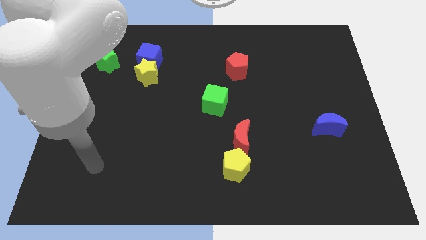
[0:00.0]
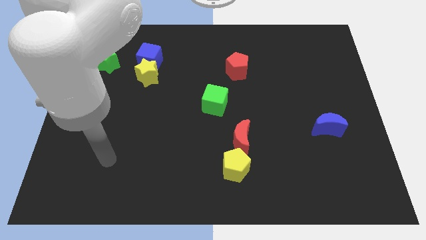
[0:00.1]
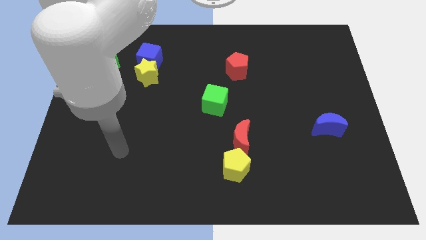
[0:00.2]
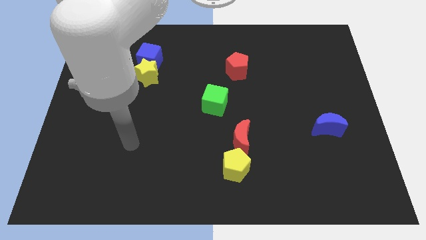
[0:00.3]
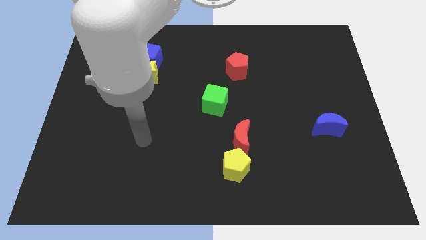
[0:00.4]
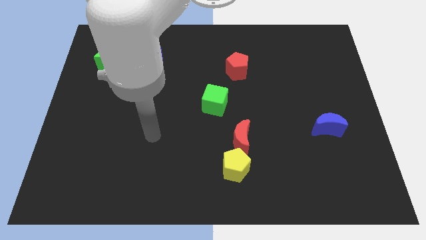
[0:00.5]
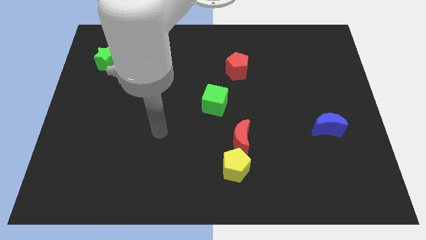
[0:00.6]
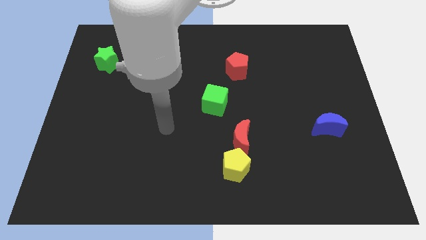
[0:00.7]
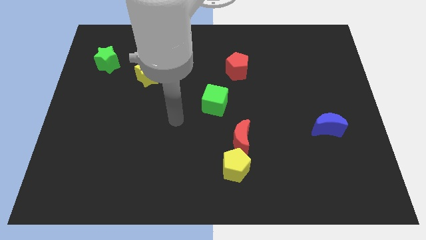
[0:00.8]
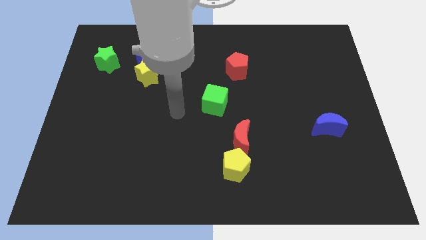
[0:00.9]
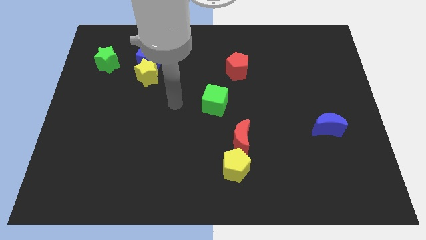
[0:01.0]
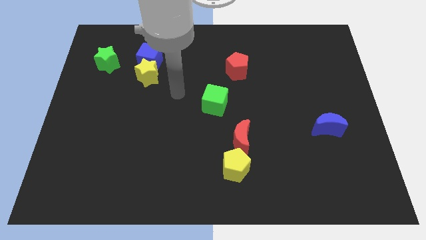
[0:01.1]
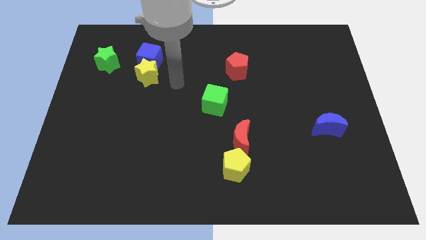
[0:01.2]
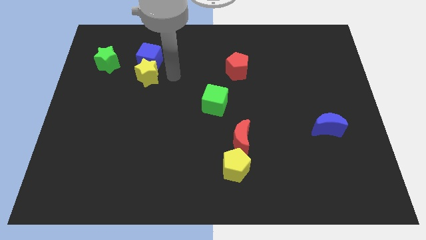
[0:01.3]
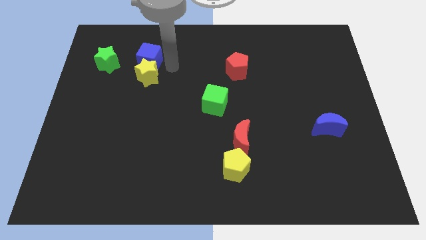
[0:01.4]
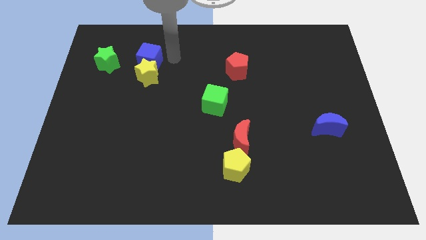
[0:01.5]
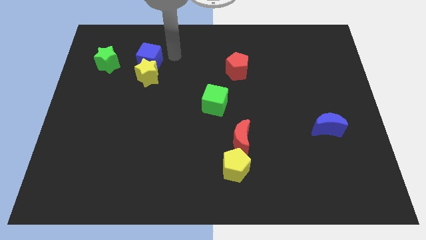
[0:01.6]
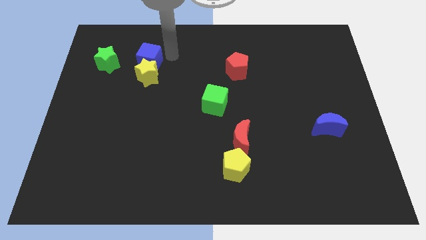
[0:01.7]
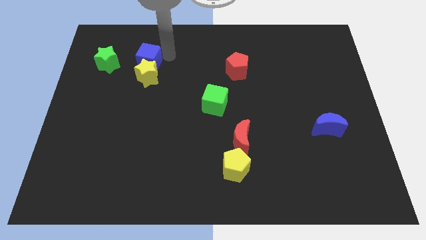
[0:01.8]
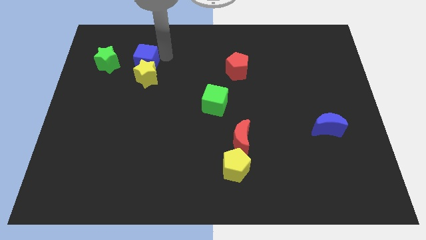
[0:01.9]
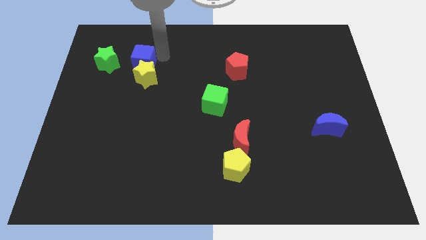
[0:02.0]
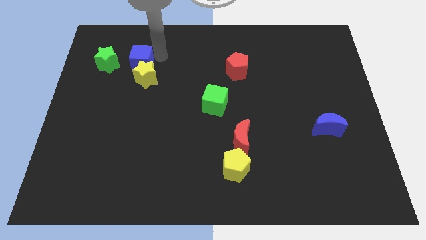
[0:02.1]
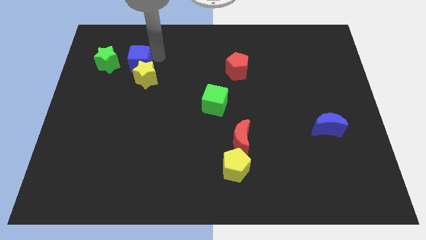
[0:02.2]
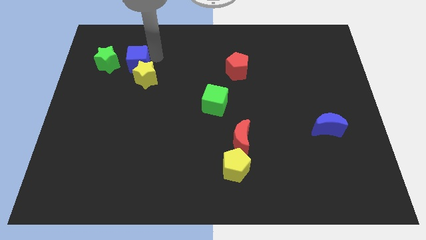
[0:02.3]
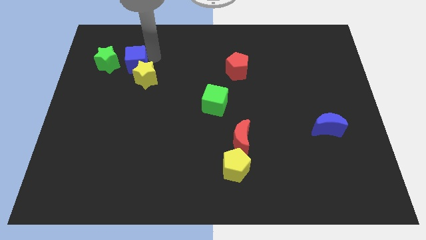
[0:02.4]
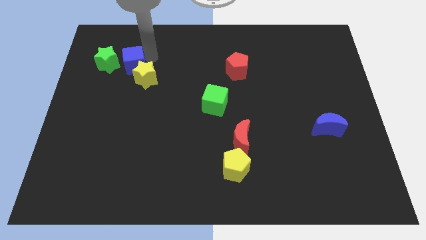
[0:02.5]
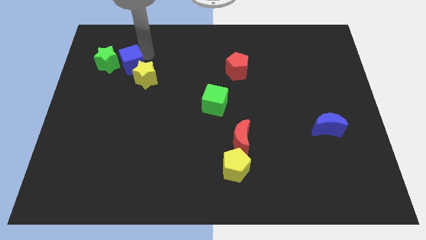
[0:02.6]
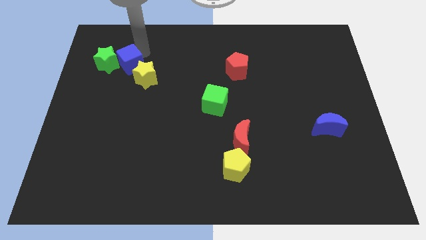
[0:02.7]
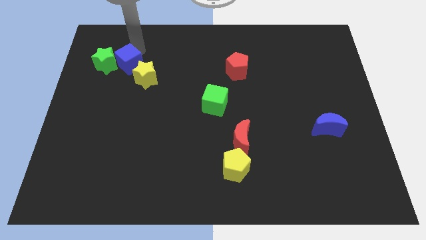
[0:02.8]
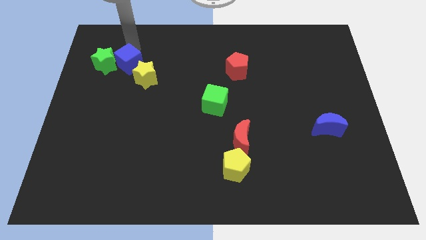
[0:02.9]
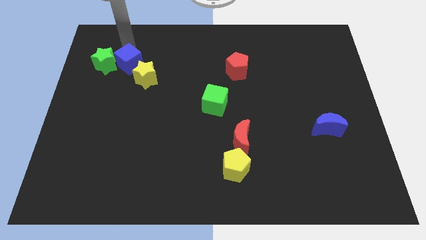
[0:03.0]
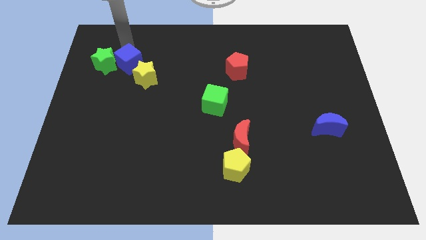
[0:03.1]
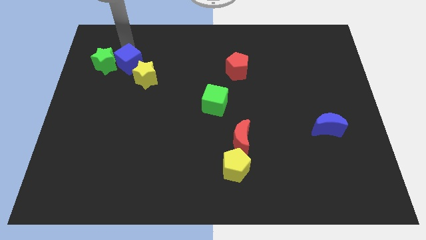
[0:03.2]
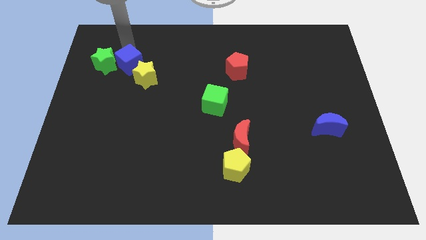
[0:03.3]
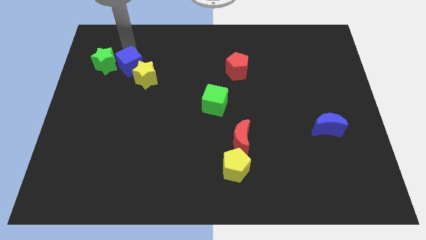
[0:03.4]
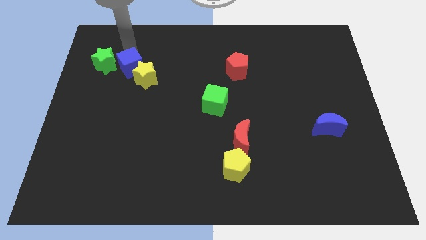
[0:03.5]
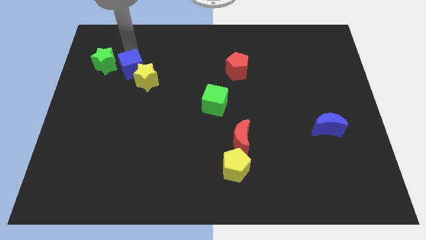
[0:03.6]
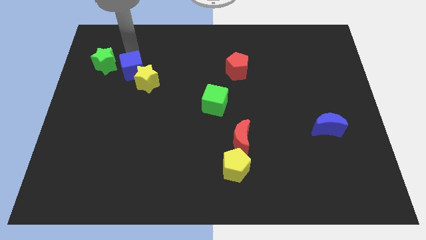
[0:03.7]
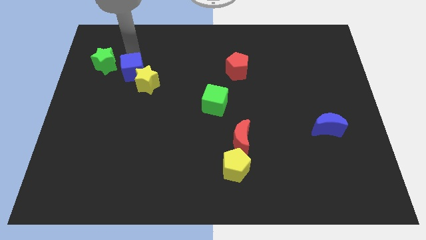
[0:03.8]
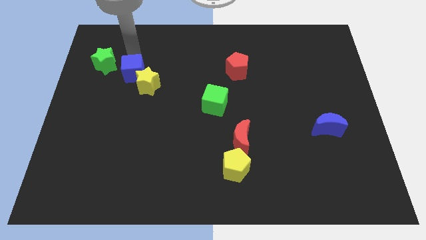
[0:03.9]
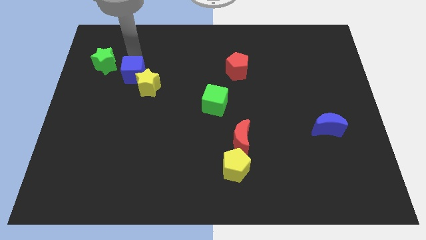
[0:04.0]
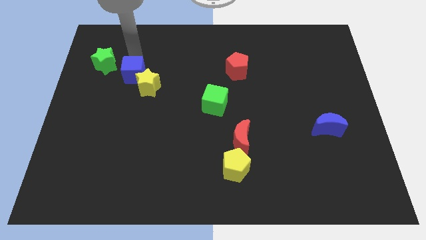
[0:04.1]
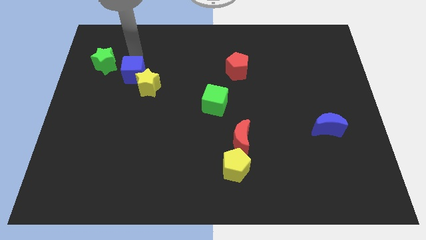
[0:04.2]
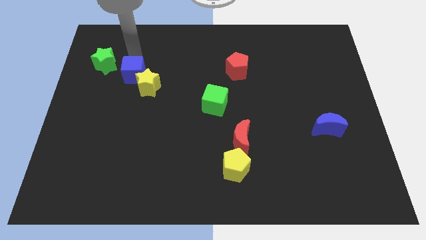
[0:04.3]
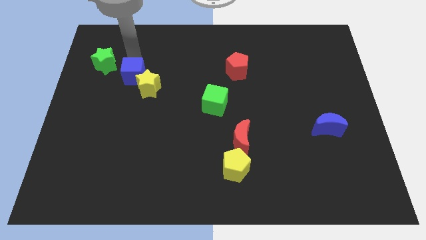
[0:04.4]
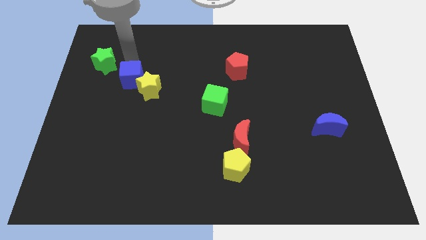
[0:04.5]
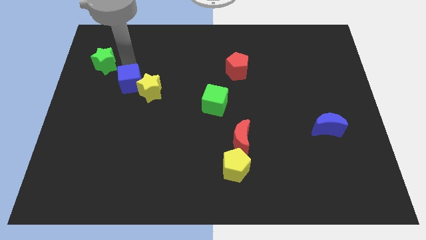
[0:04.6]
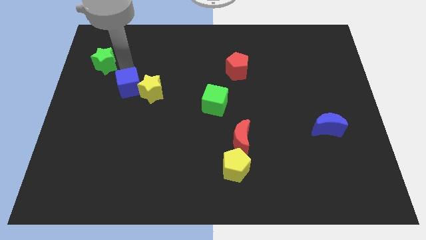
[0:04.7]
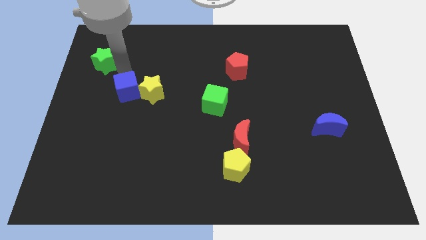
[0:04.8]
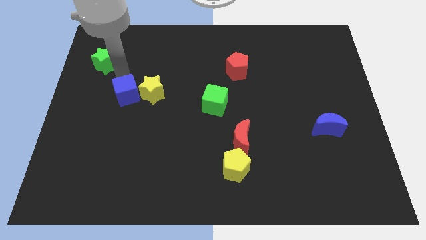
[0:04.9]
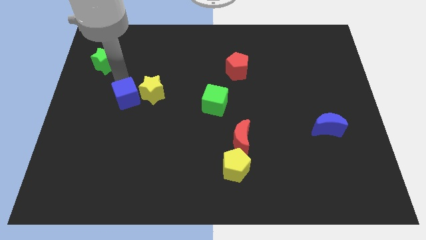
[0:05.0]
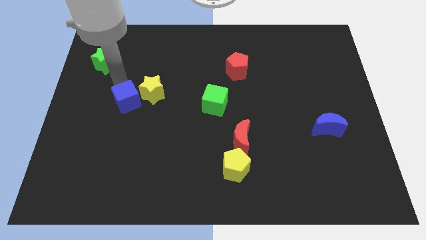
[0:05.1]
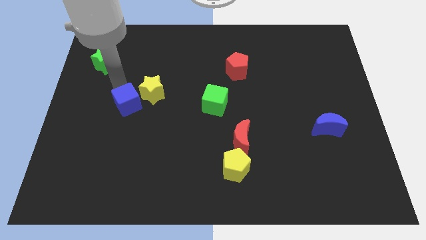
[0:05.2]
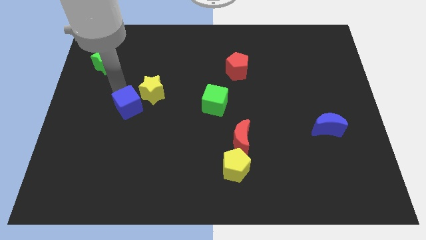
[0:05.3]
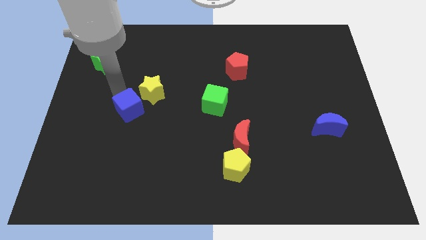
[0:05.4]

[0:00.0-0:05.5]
put the blue cube to the bottom of the yellow star

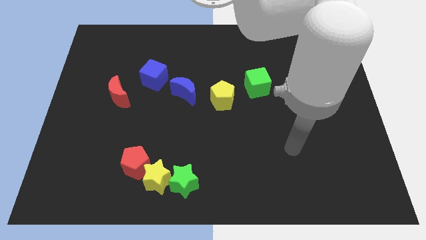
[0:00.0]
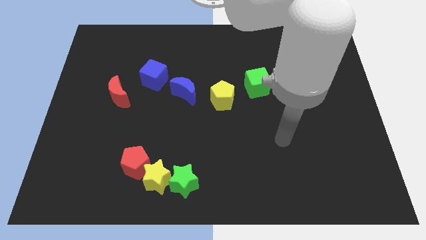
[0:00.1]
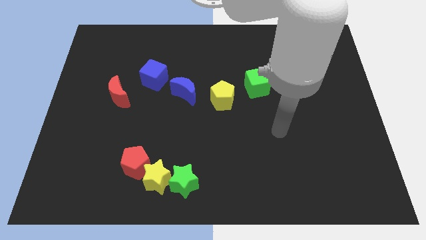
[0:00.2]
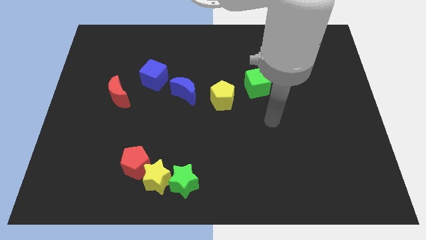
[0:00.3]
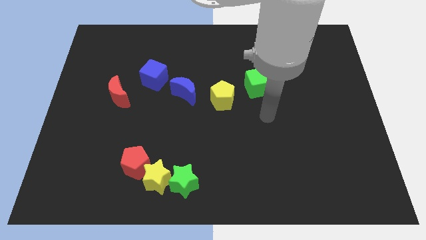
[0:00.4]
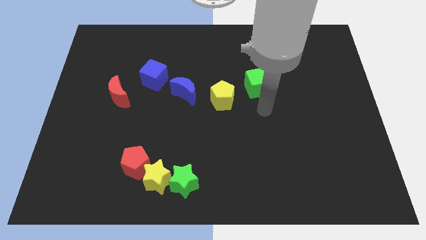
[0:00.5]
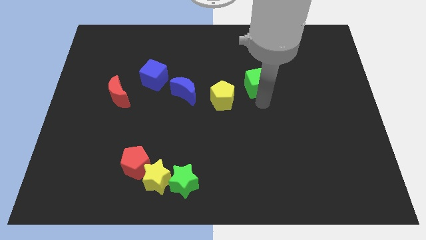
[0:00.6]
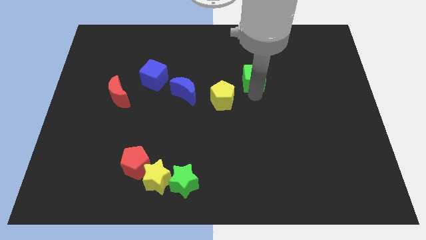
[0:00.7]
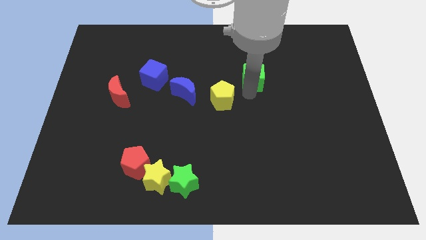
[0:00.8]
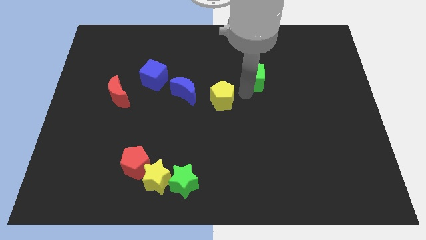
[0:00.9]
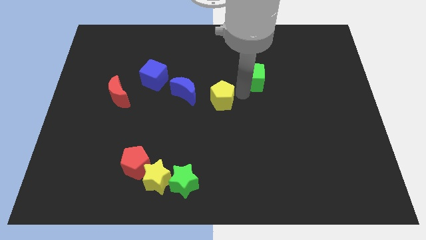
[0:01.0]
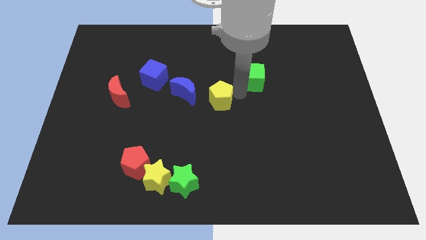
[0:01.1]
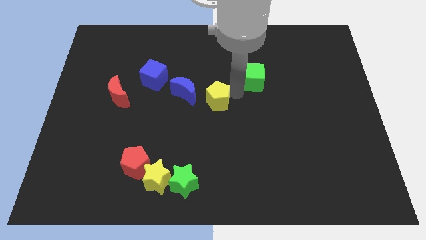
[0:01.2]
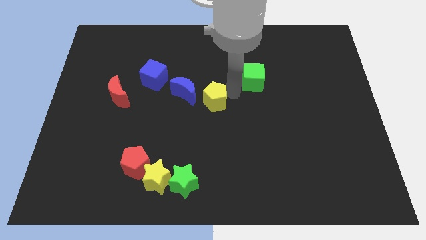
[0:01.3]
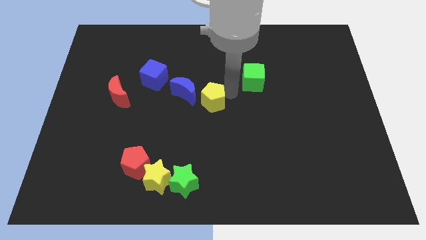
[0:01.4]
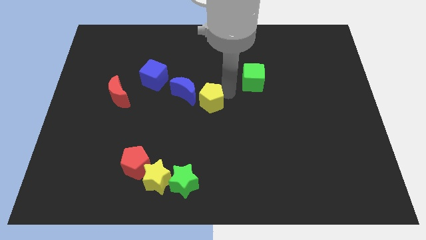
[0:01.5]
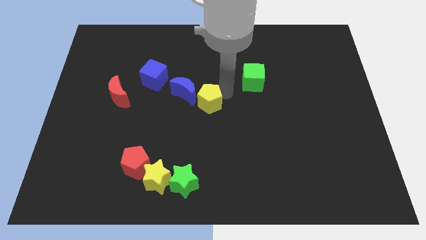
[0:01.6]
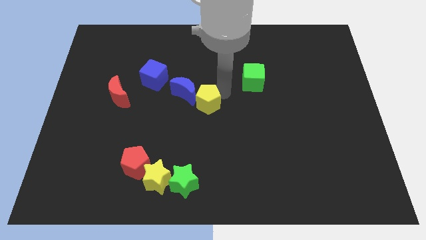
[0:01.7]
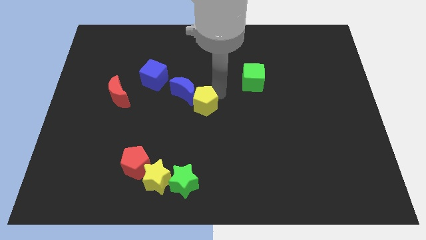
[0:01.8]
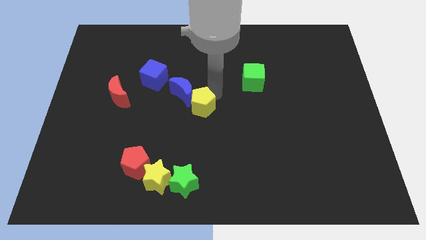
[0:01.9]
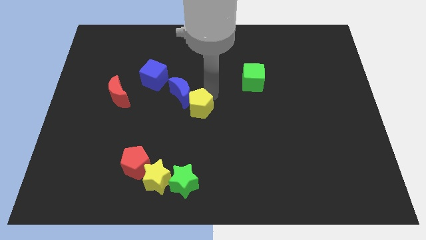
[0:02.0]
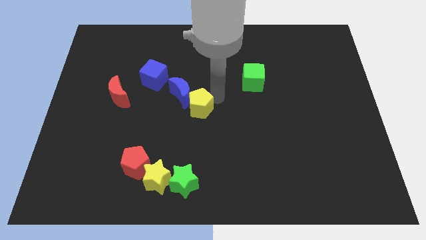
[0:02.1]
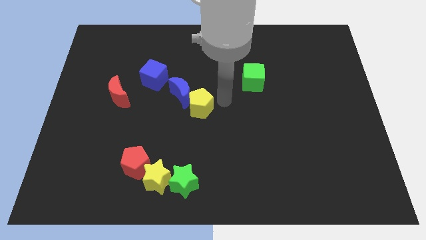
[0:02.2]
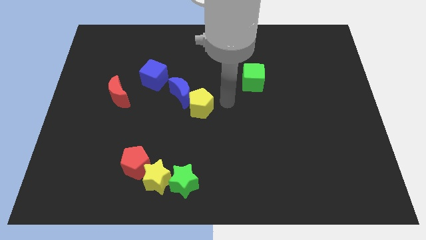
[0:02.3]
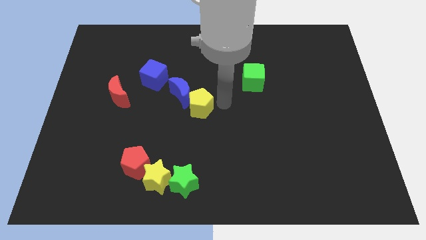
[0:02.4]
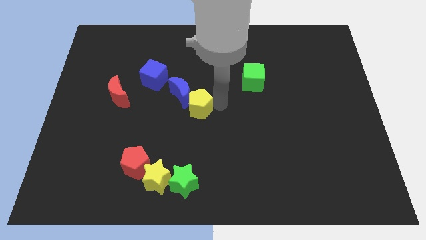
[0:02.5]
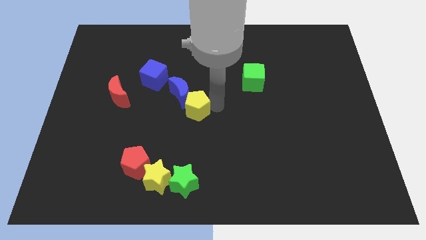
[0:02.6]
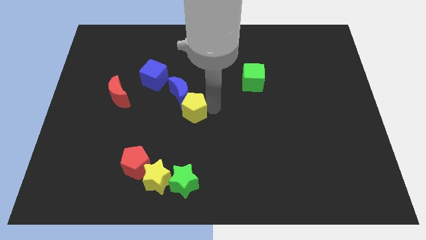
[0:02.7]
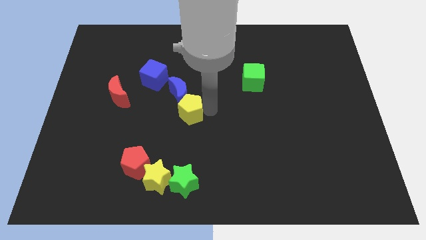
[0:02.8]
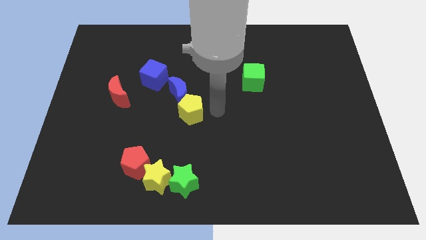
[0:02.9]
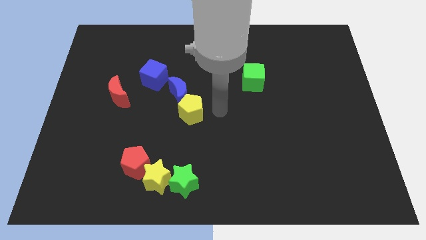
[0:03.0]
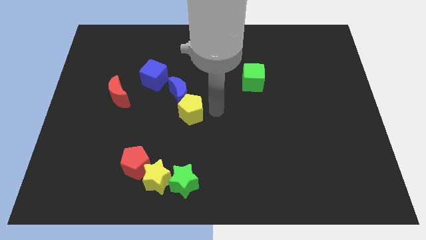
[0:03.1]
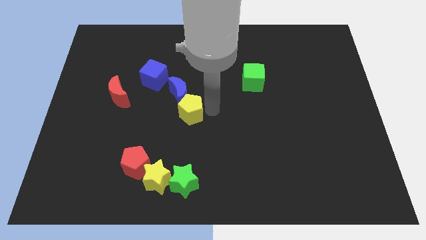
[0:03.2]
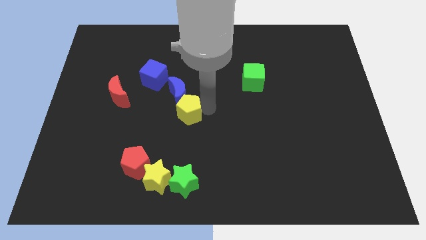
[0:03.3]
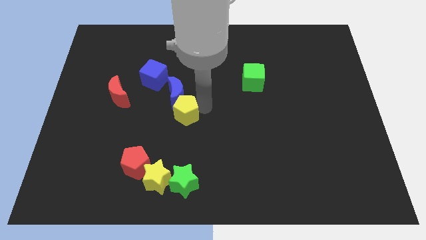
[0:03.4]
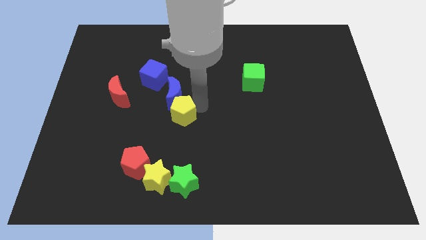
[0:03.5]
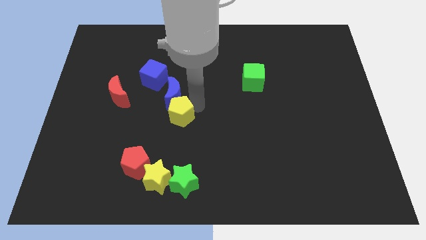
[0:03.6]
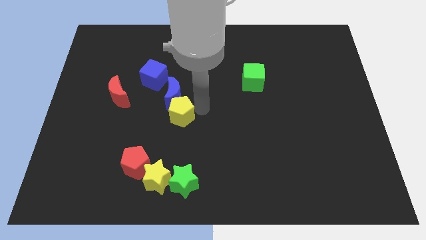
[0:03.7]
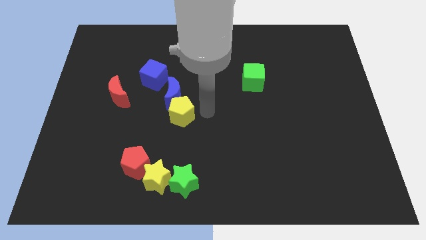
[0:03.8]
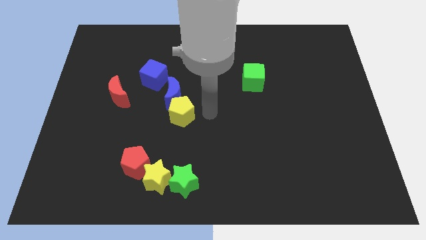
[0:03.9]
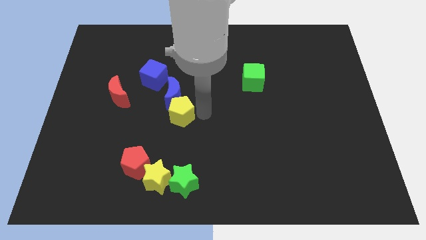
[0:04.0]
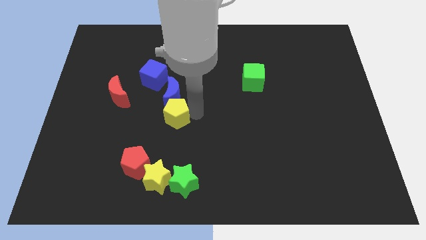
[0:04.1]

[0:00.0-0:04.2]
put the yellow pentagon to the bottom left of the blue moon
